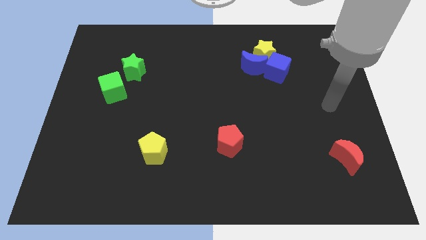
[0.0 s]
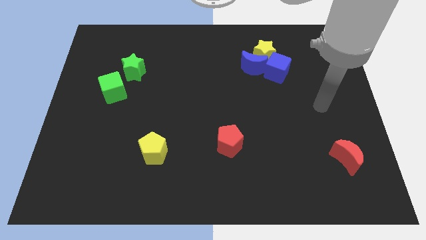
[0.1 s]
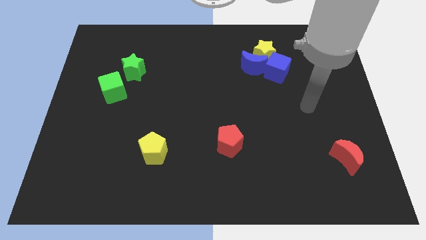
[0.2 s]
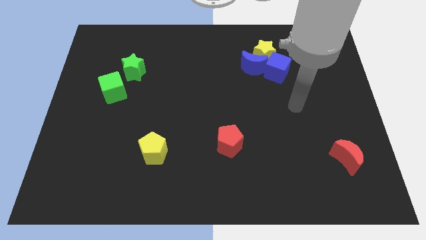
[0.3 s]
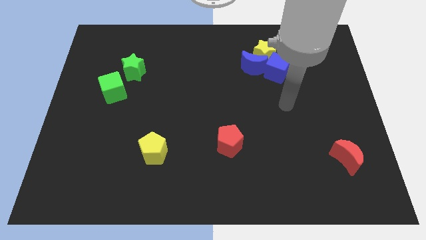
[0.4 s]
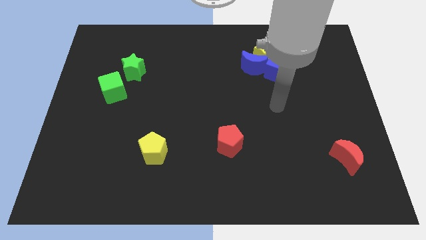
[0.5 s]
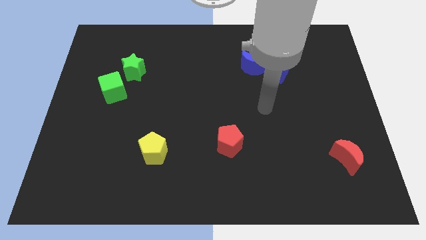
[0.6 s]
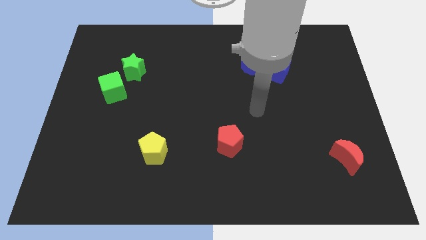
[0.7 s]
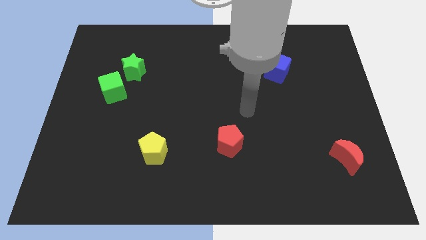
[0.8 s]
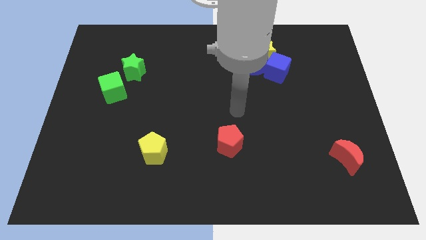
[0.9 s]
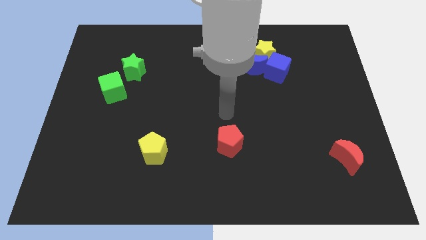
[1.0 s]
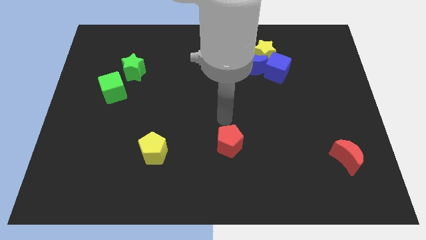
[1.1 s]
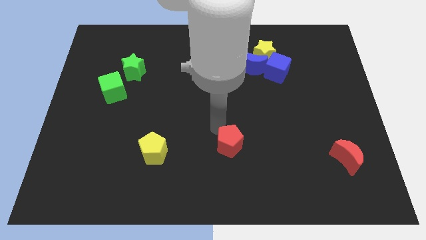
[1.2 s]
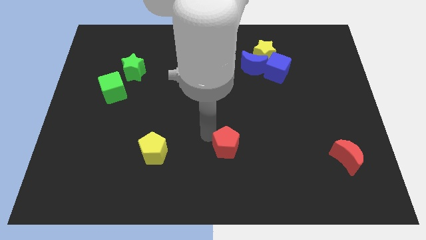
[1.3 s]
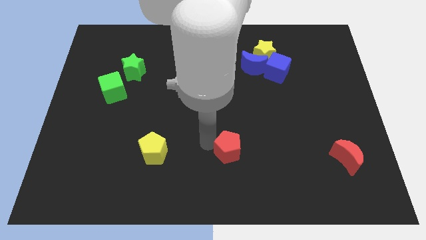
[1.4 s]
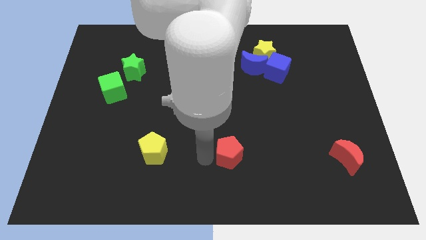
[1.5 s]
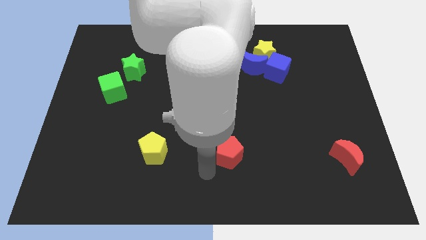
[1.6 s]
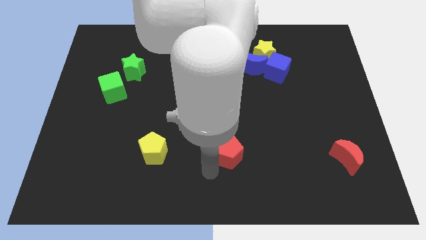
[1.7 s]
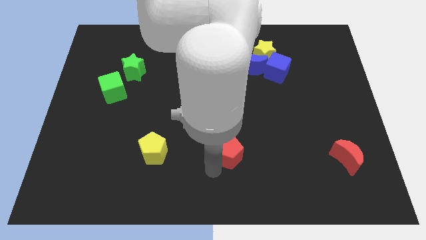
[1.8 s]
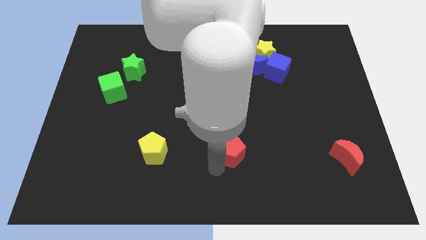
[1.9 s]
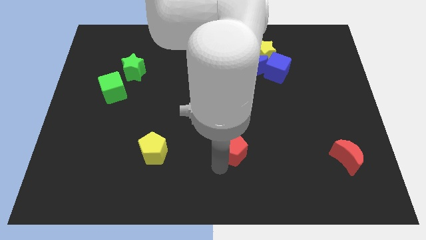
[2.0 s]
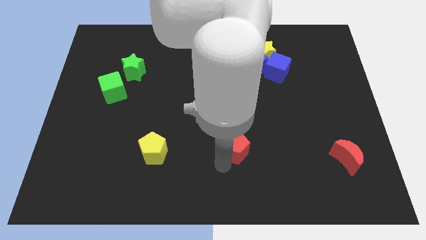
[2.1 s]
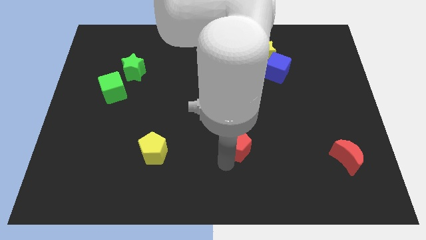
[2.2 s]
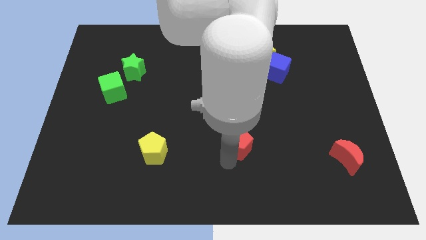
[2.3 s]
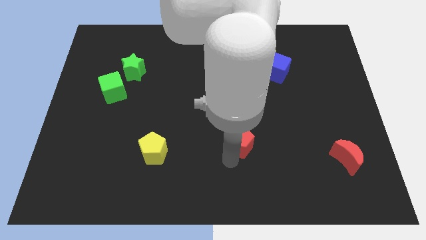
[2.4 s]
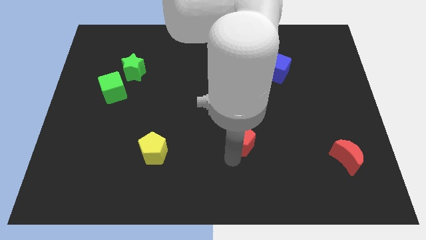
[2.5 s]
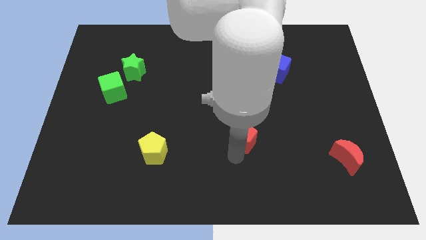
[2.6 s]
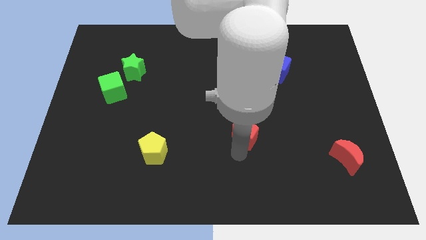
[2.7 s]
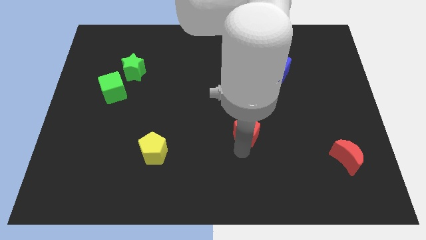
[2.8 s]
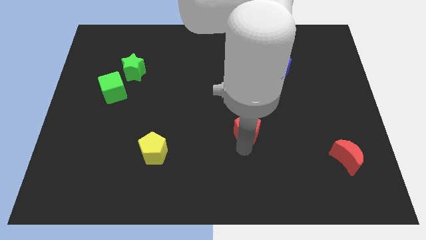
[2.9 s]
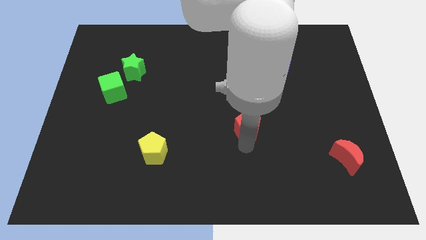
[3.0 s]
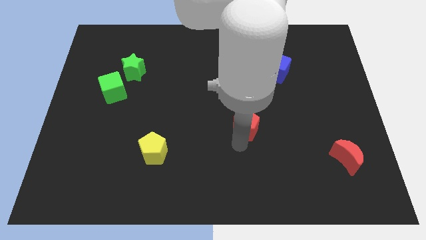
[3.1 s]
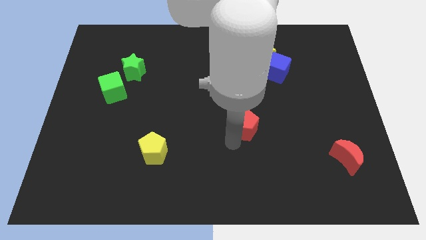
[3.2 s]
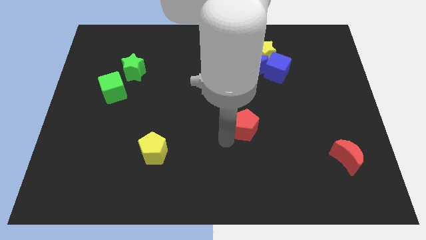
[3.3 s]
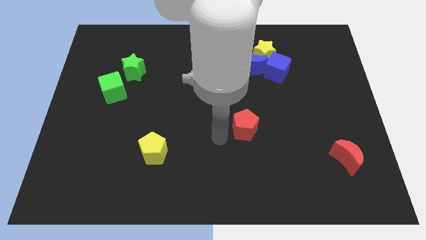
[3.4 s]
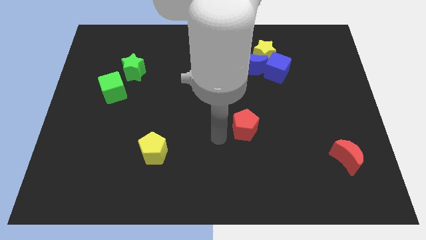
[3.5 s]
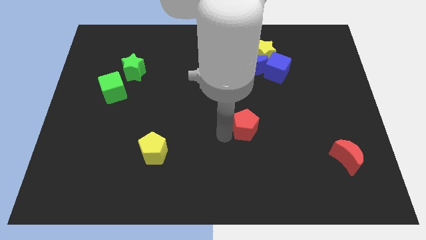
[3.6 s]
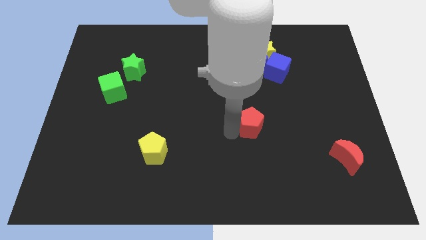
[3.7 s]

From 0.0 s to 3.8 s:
push the red pentagon a bit upwards and to the right diagonally

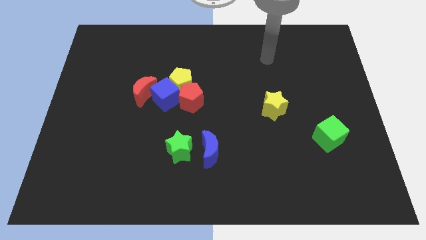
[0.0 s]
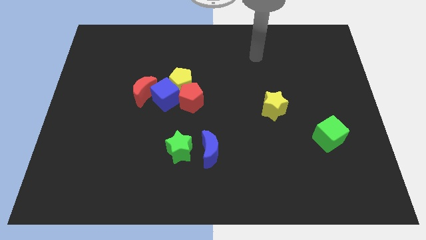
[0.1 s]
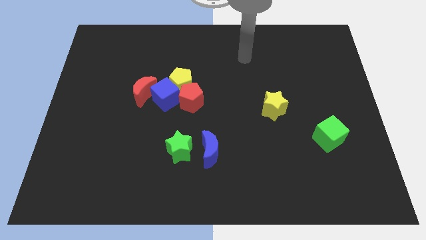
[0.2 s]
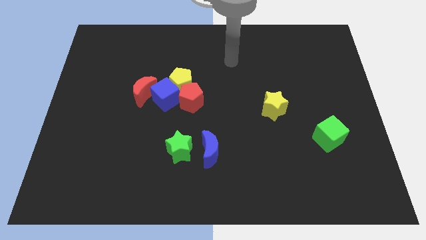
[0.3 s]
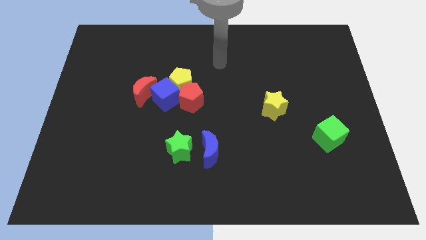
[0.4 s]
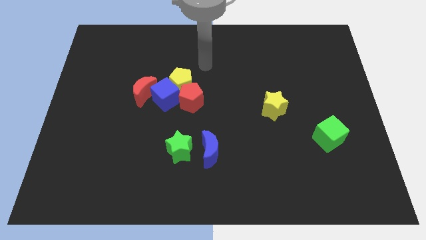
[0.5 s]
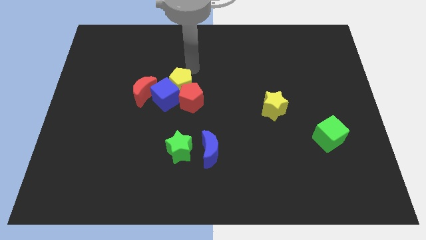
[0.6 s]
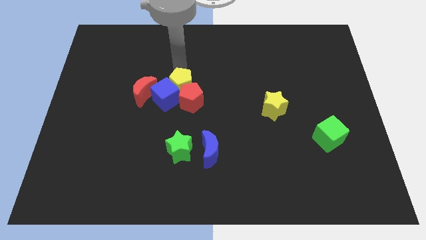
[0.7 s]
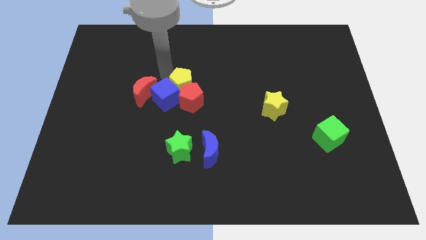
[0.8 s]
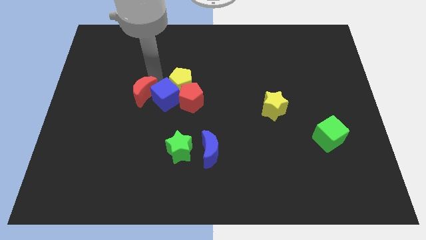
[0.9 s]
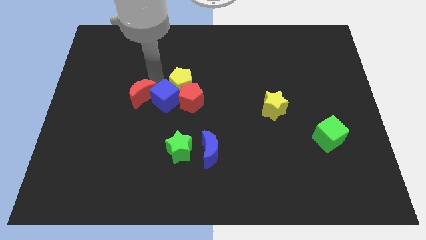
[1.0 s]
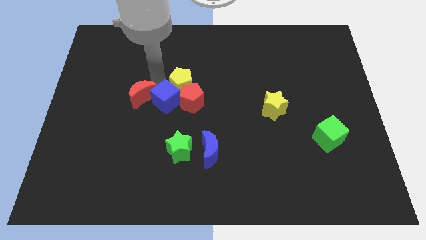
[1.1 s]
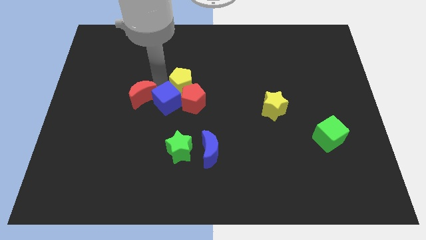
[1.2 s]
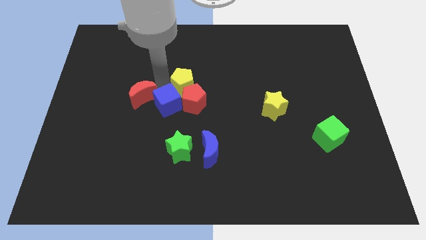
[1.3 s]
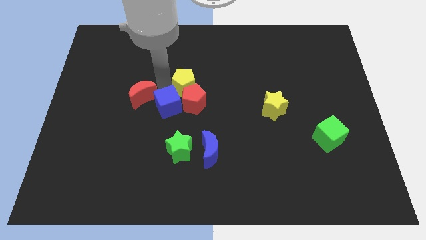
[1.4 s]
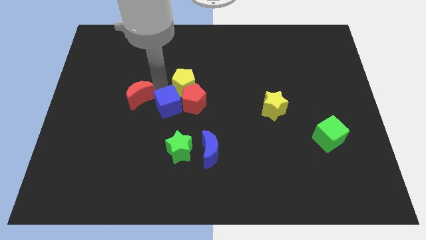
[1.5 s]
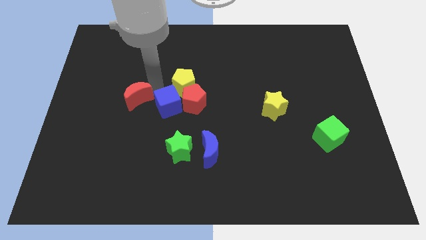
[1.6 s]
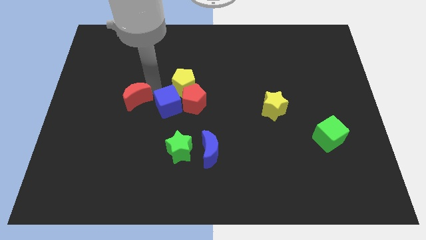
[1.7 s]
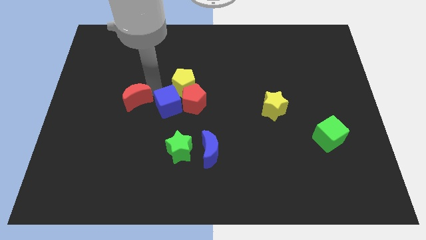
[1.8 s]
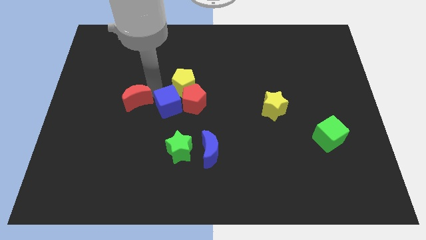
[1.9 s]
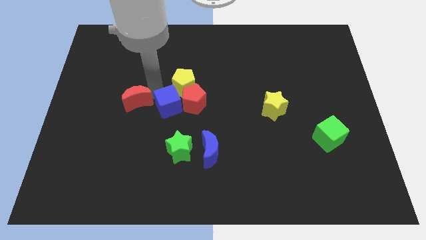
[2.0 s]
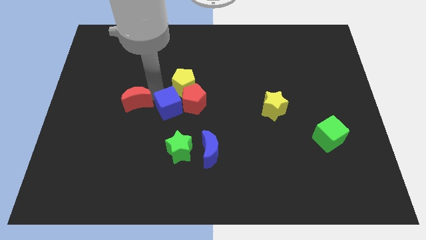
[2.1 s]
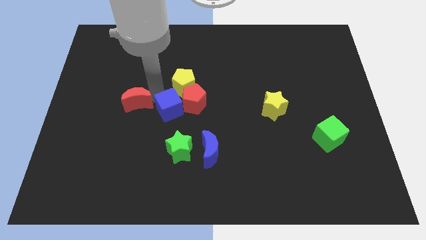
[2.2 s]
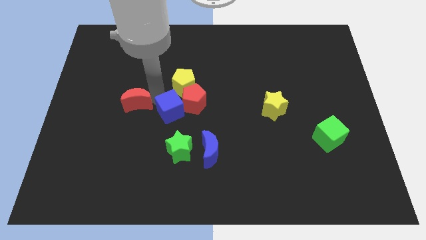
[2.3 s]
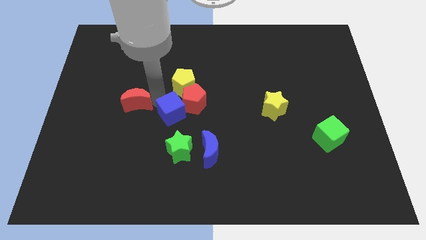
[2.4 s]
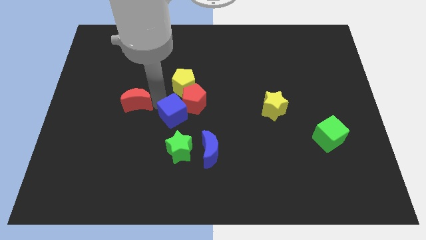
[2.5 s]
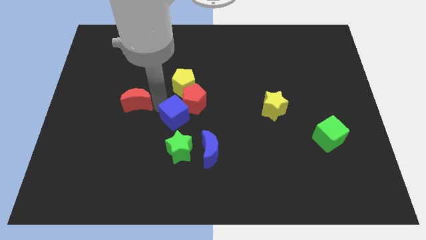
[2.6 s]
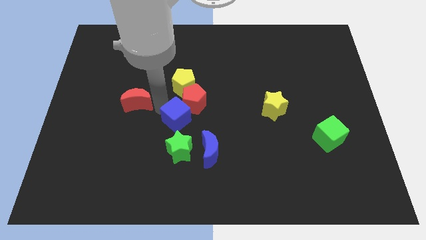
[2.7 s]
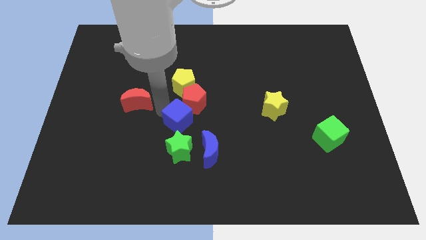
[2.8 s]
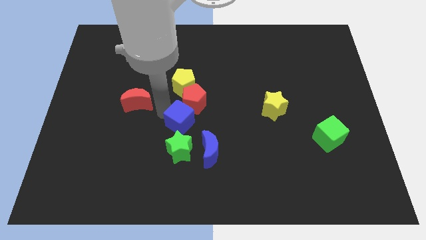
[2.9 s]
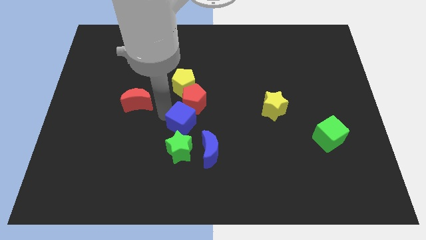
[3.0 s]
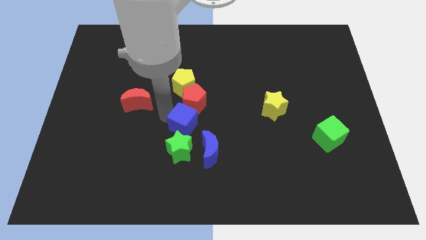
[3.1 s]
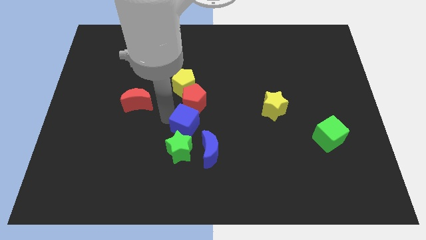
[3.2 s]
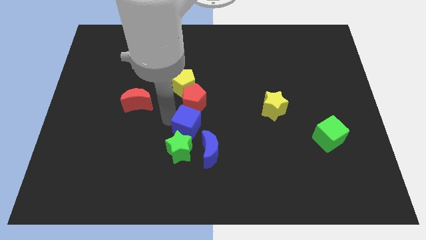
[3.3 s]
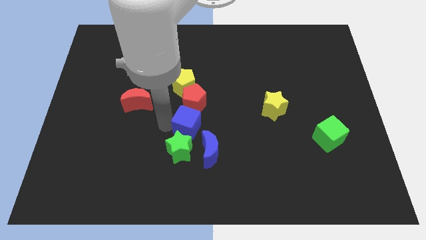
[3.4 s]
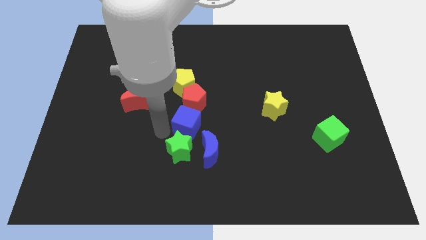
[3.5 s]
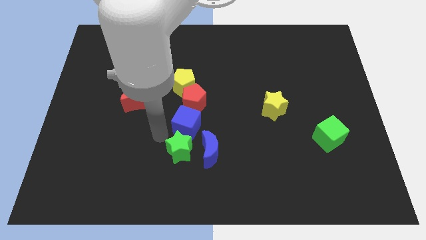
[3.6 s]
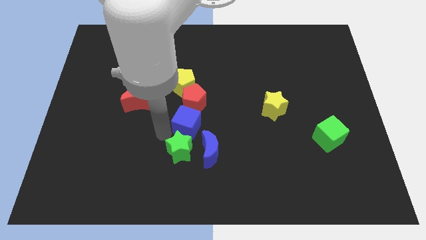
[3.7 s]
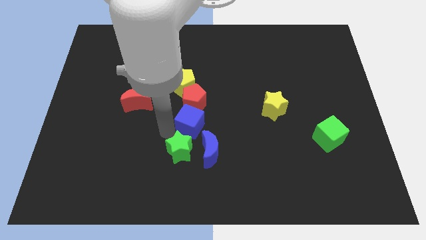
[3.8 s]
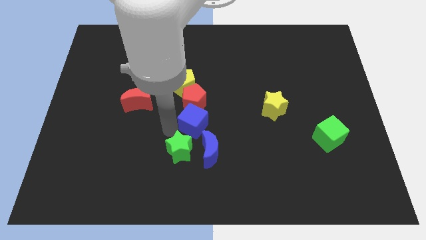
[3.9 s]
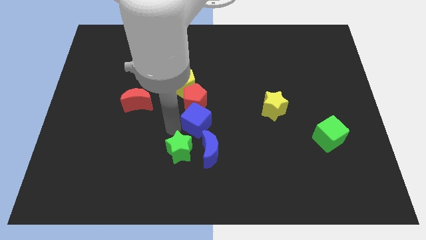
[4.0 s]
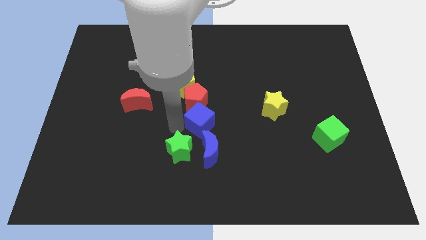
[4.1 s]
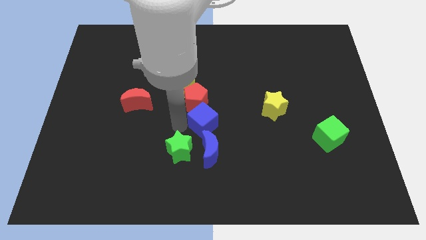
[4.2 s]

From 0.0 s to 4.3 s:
slide the blue cube to the right a little
